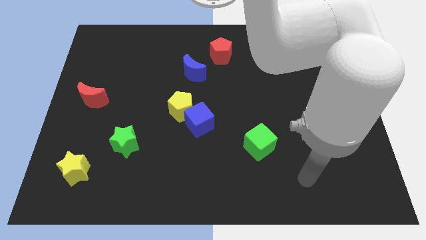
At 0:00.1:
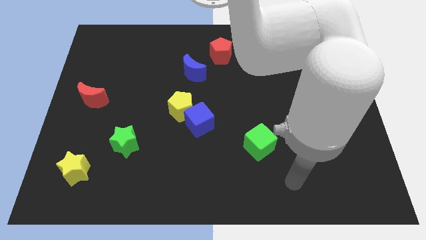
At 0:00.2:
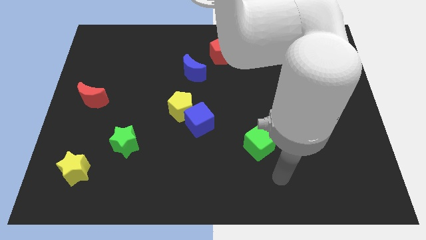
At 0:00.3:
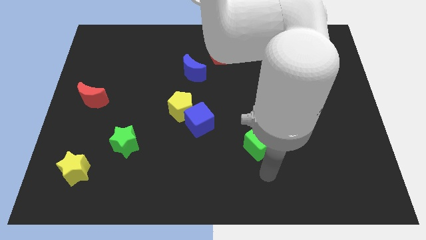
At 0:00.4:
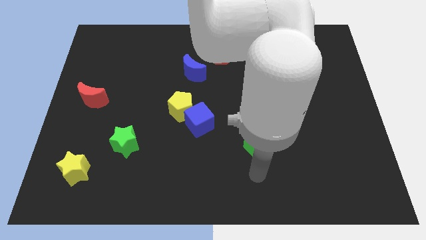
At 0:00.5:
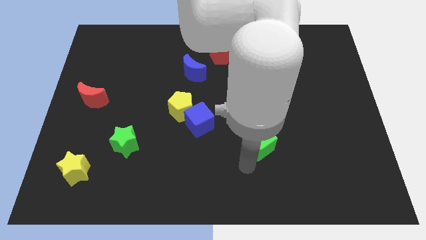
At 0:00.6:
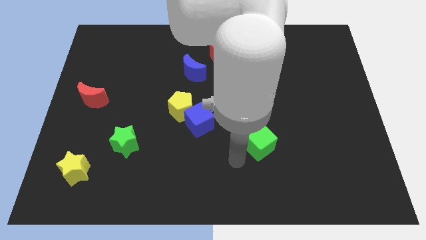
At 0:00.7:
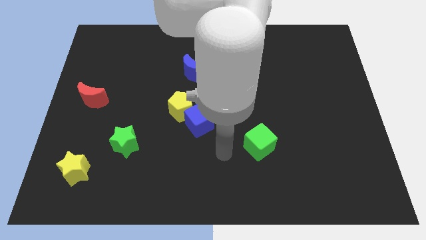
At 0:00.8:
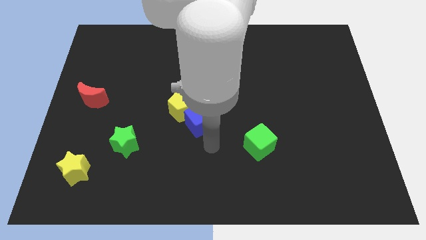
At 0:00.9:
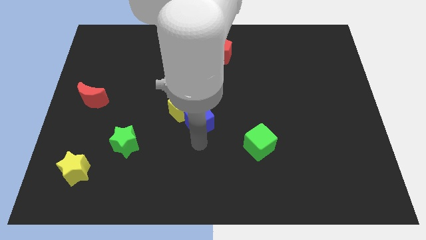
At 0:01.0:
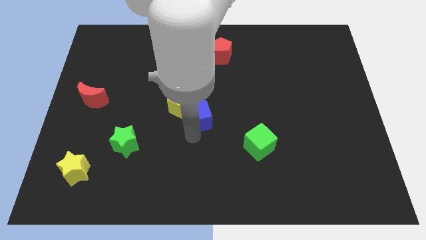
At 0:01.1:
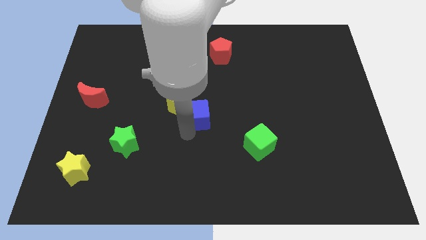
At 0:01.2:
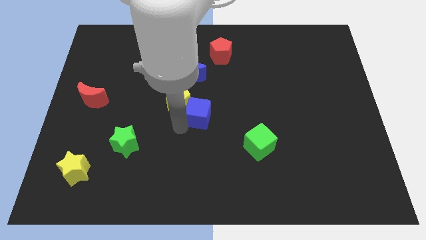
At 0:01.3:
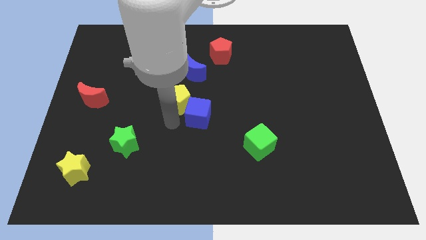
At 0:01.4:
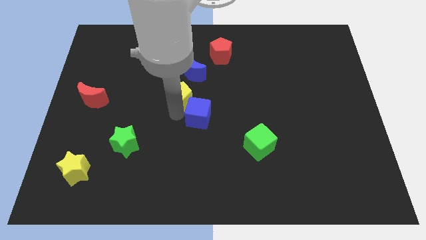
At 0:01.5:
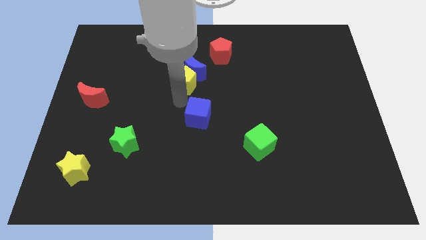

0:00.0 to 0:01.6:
pull the blue cube apart from the yellow pentagon

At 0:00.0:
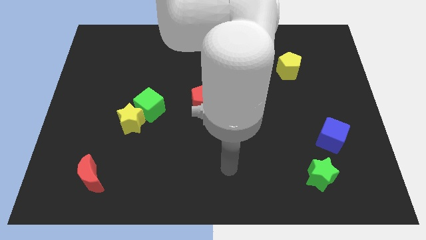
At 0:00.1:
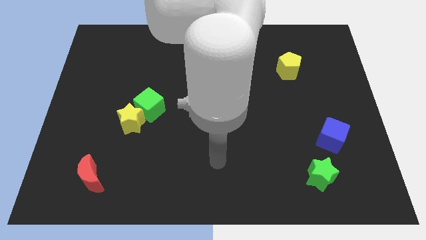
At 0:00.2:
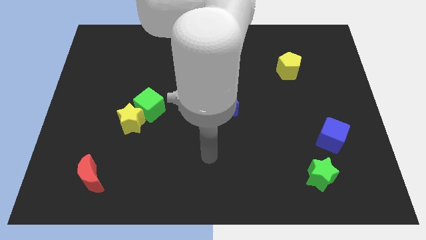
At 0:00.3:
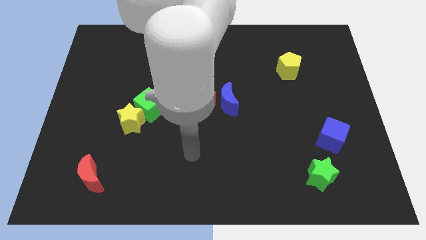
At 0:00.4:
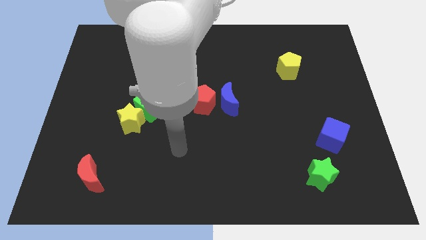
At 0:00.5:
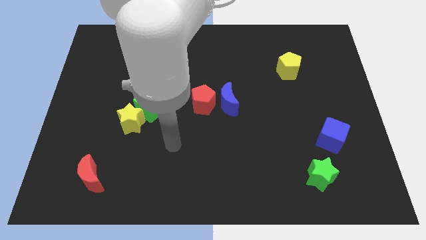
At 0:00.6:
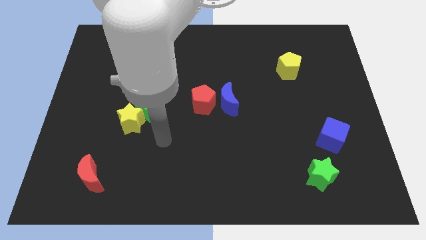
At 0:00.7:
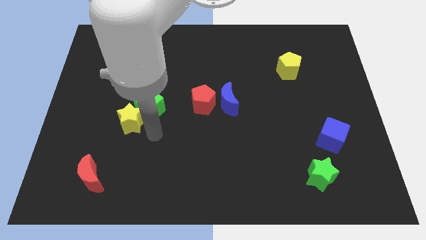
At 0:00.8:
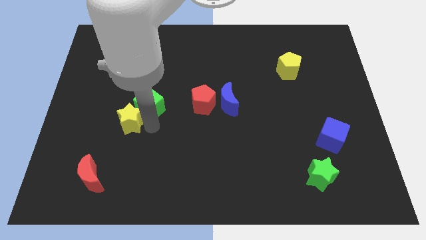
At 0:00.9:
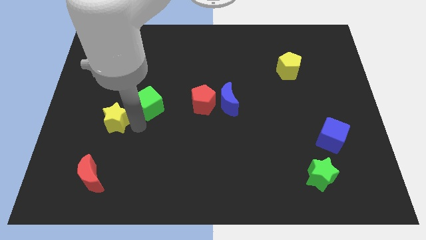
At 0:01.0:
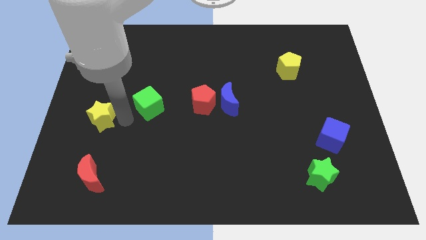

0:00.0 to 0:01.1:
pull the green cube apart from the yellow star

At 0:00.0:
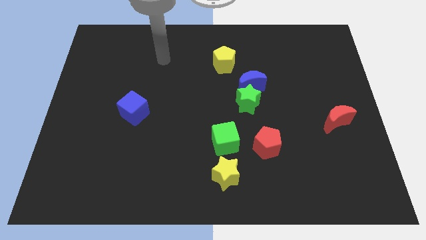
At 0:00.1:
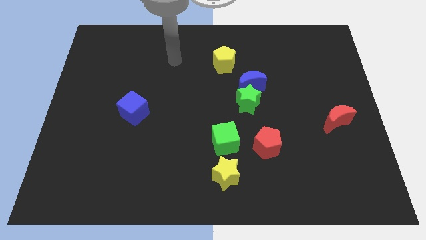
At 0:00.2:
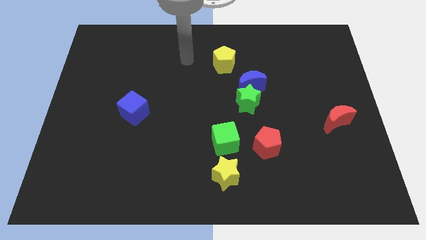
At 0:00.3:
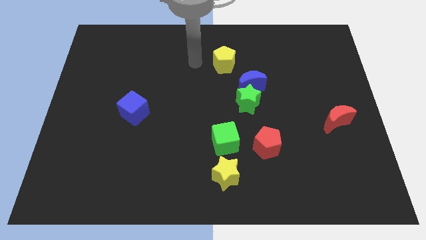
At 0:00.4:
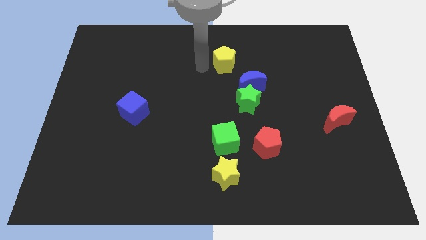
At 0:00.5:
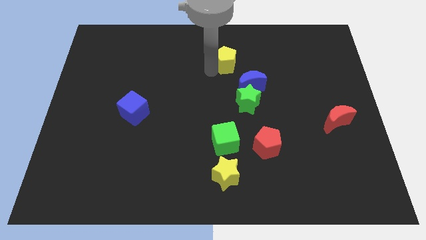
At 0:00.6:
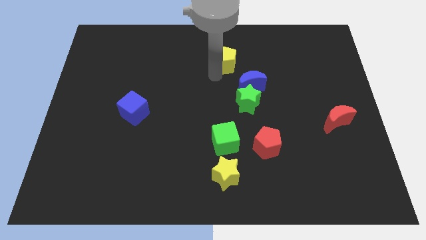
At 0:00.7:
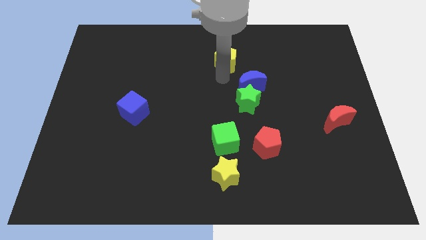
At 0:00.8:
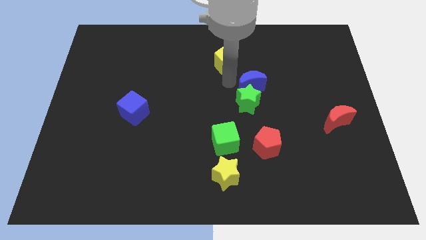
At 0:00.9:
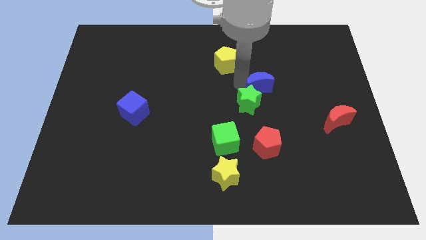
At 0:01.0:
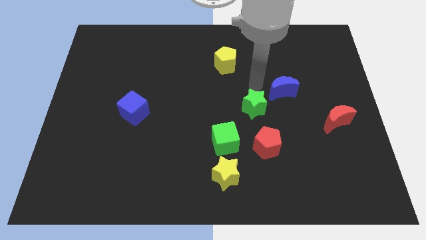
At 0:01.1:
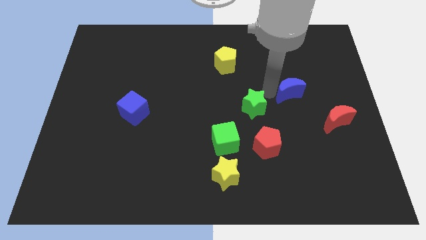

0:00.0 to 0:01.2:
separate the green star from the blue moon

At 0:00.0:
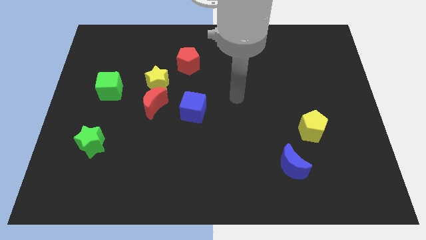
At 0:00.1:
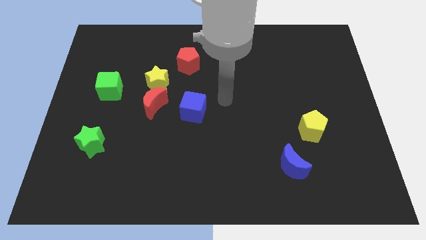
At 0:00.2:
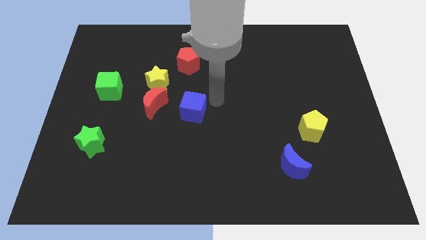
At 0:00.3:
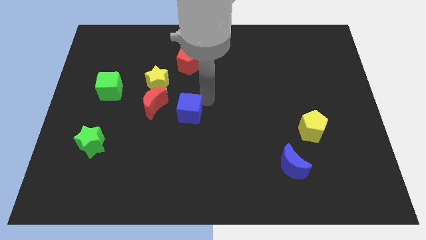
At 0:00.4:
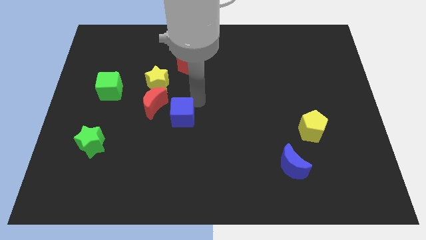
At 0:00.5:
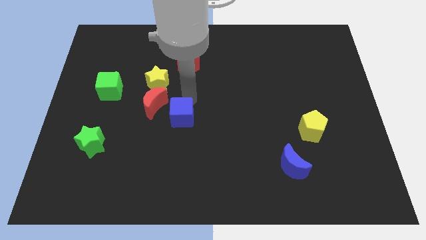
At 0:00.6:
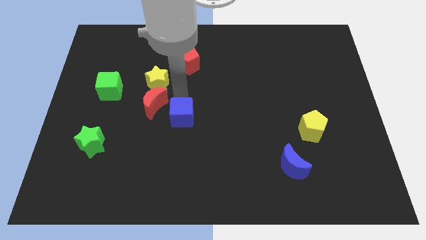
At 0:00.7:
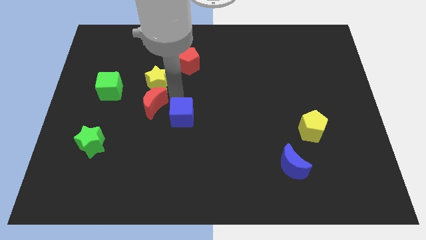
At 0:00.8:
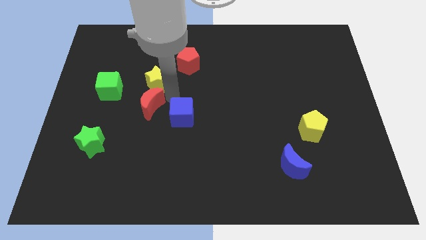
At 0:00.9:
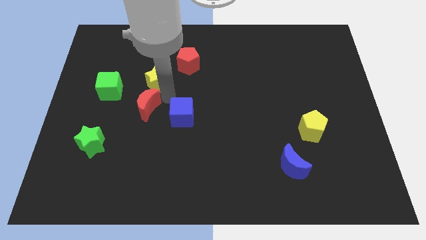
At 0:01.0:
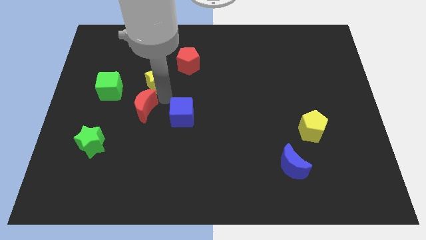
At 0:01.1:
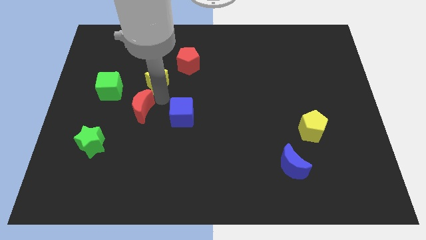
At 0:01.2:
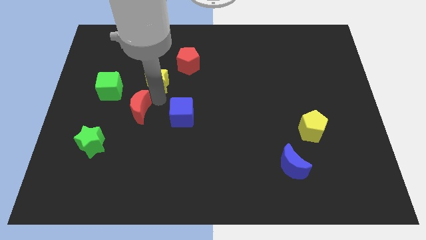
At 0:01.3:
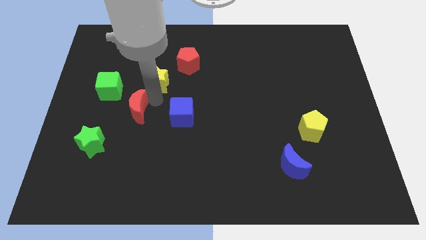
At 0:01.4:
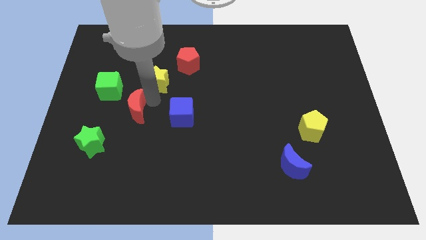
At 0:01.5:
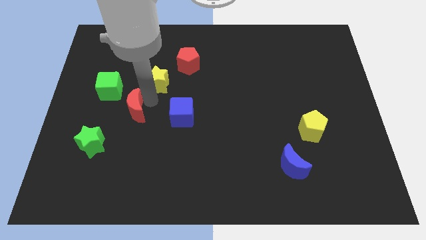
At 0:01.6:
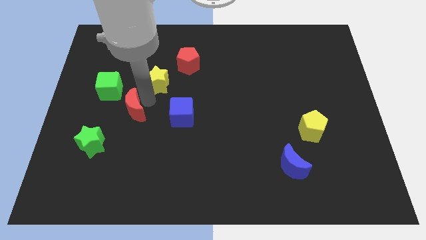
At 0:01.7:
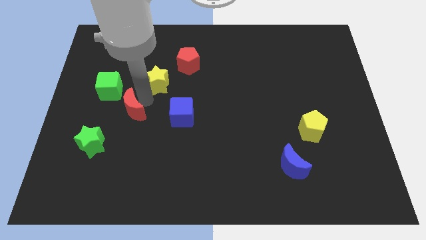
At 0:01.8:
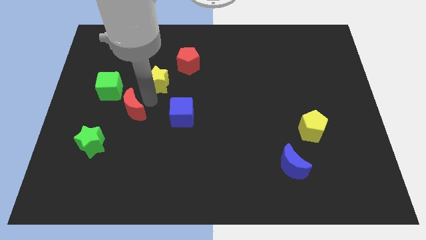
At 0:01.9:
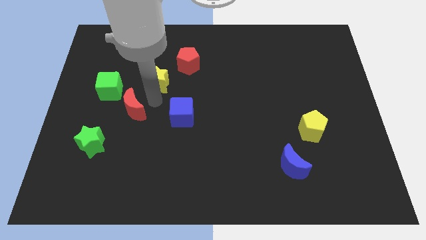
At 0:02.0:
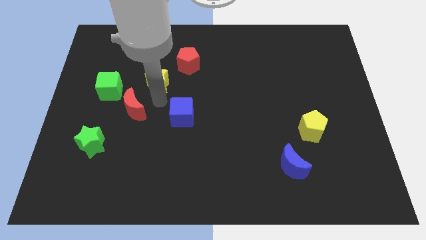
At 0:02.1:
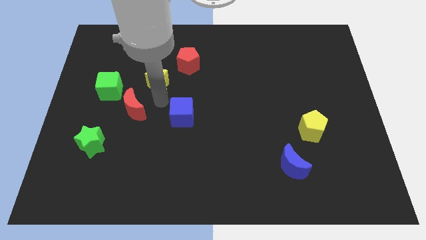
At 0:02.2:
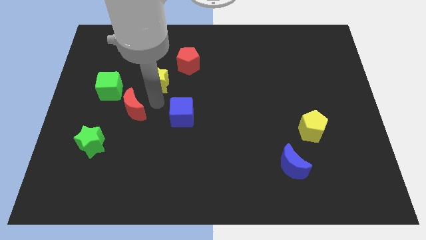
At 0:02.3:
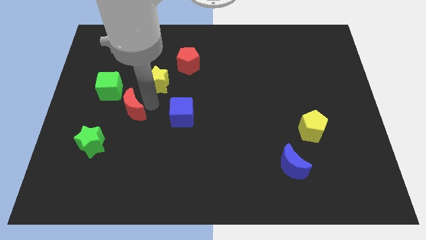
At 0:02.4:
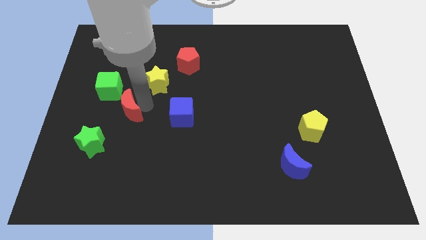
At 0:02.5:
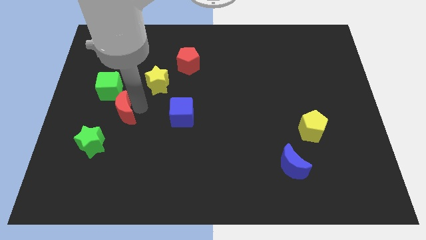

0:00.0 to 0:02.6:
pull the red moon apart from the yellow star and blue cube

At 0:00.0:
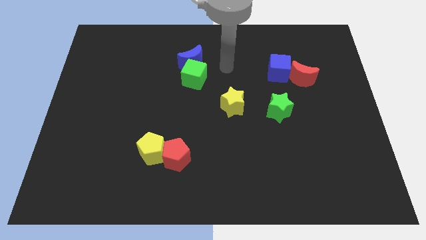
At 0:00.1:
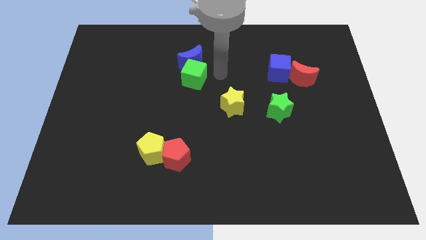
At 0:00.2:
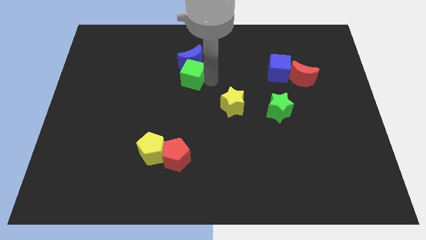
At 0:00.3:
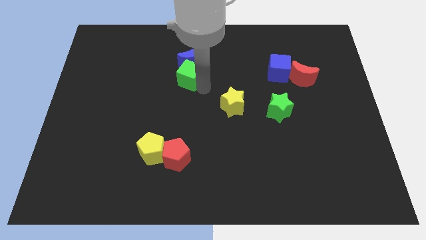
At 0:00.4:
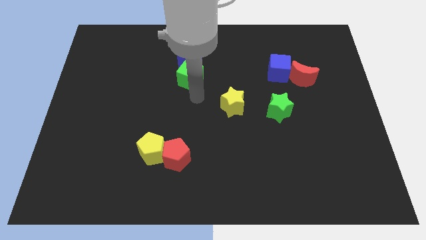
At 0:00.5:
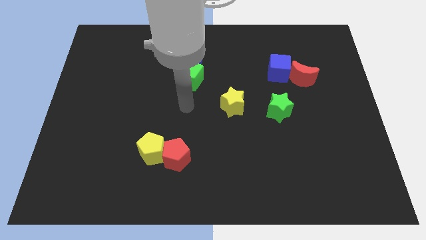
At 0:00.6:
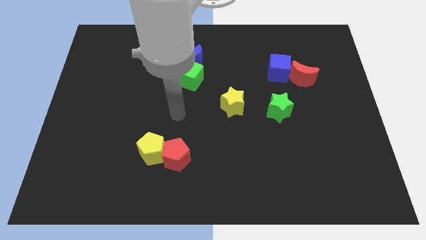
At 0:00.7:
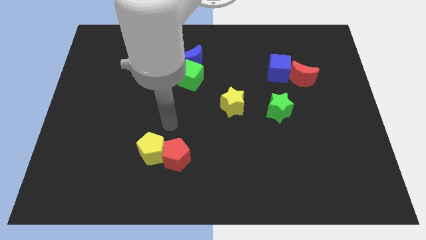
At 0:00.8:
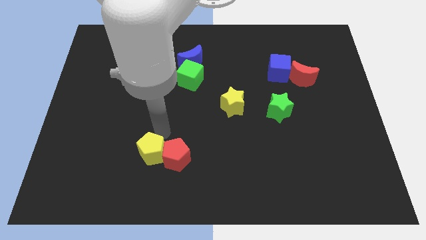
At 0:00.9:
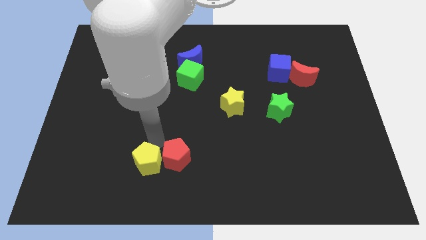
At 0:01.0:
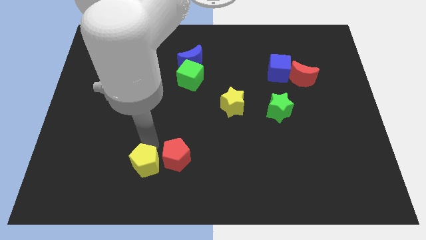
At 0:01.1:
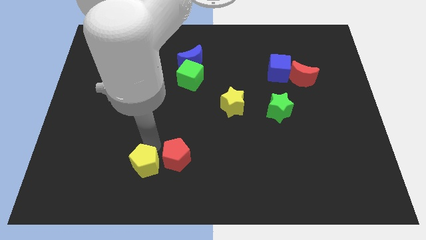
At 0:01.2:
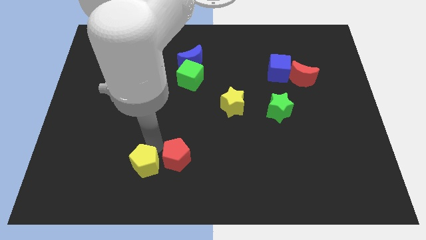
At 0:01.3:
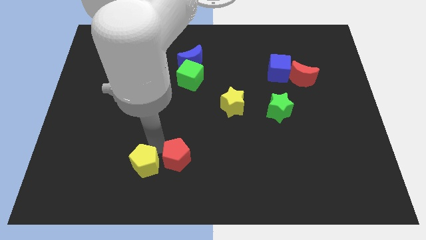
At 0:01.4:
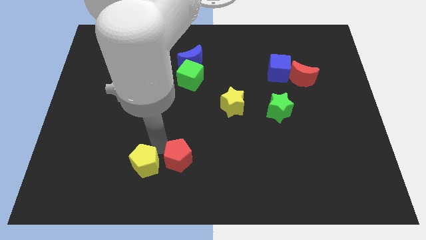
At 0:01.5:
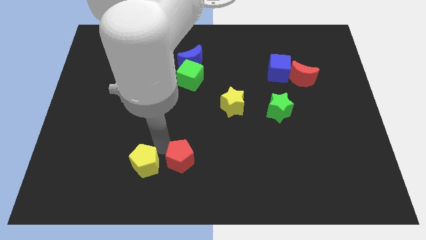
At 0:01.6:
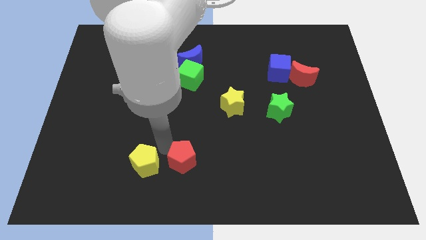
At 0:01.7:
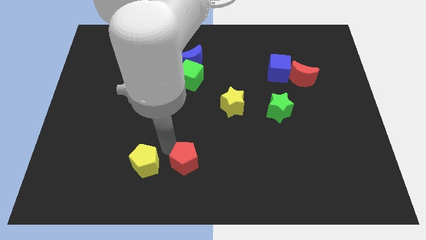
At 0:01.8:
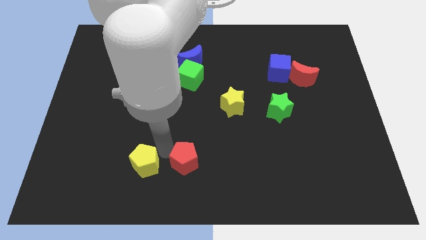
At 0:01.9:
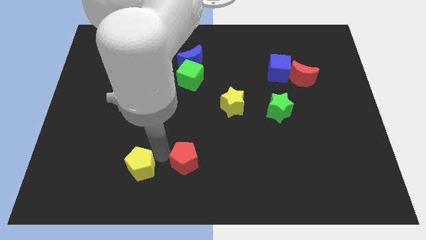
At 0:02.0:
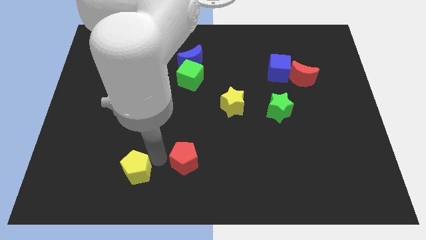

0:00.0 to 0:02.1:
pull the red pentagon apart from the yellow pentagon

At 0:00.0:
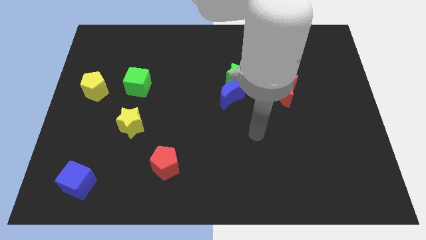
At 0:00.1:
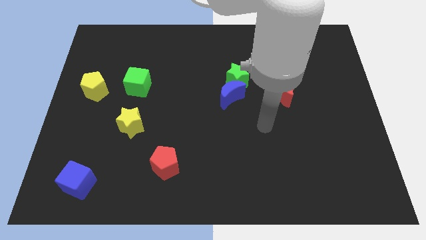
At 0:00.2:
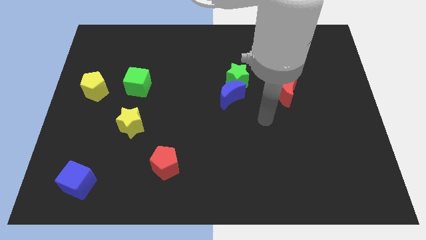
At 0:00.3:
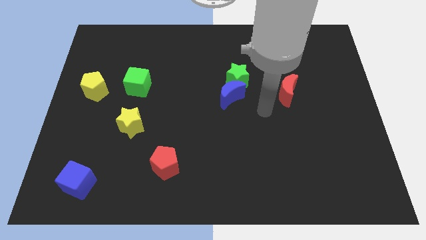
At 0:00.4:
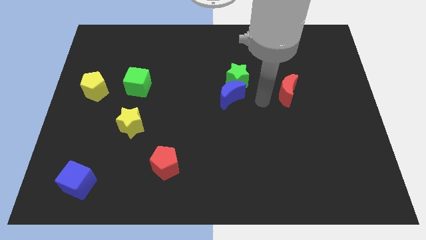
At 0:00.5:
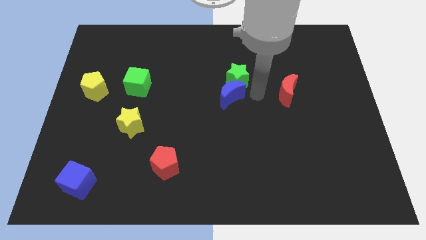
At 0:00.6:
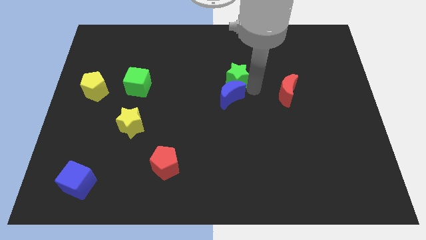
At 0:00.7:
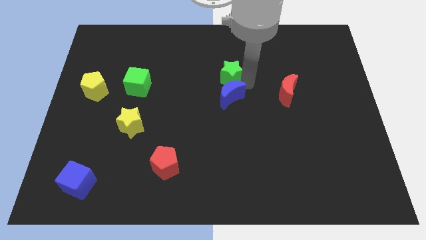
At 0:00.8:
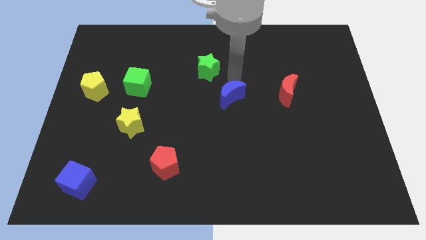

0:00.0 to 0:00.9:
separate the blue moon from the green star
